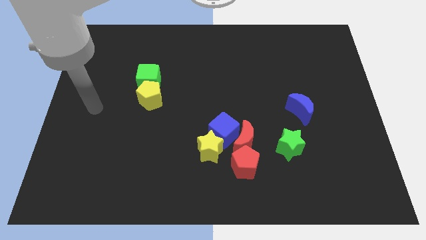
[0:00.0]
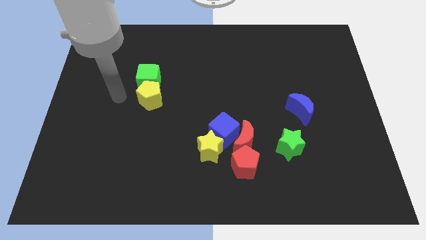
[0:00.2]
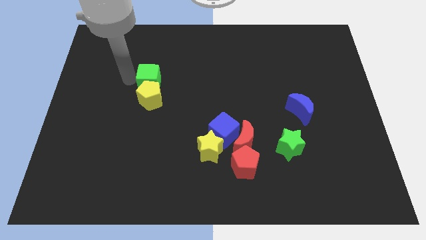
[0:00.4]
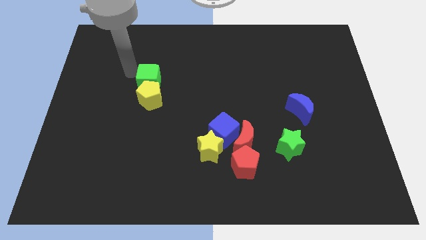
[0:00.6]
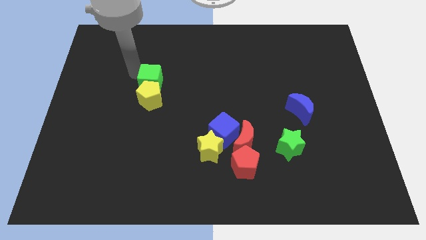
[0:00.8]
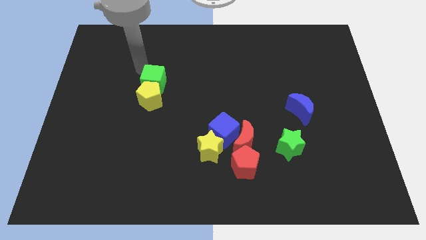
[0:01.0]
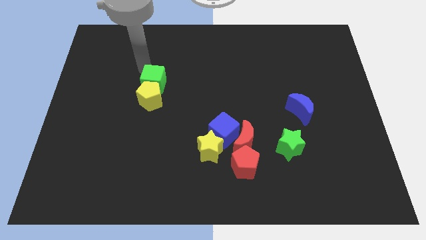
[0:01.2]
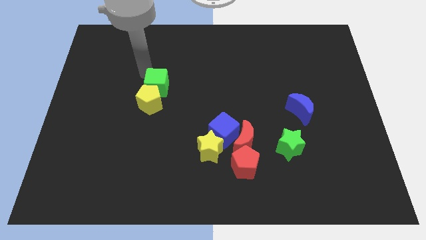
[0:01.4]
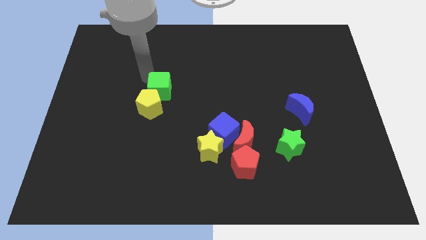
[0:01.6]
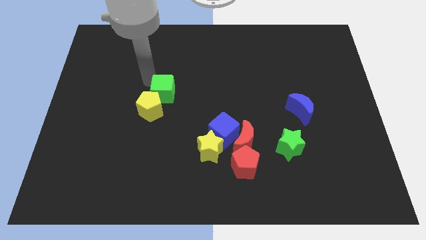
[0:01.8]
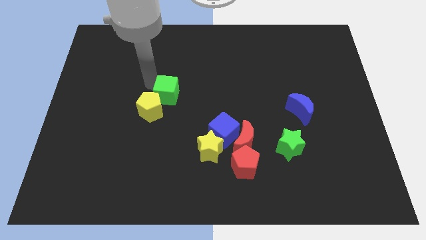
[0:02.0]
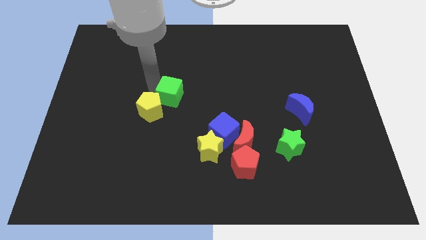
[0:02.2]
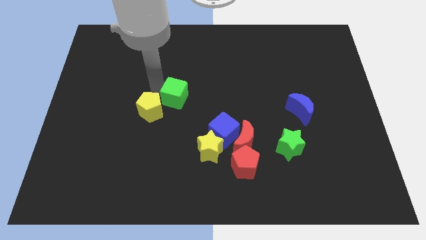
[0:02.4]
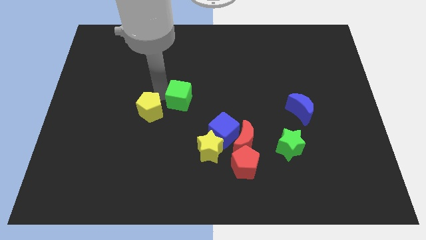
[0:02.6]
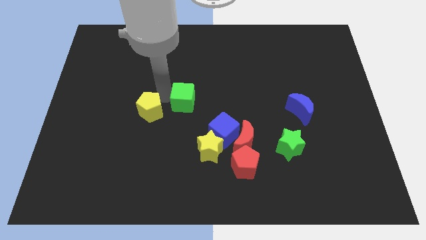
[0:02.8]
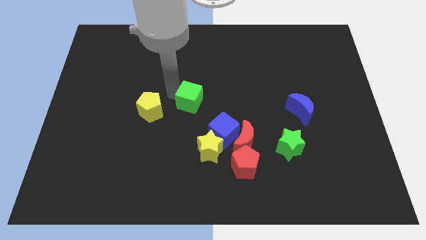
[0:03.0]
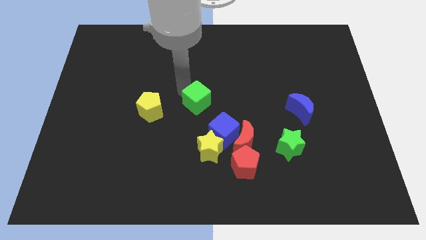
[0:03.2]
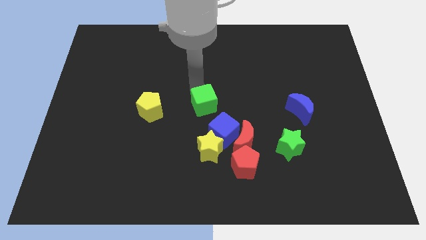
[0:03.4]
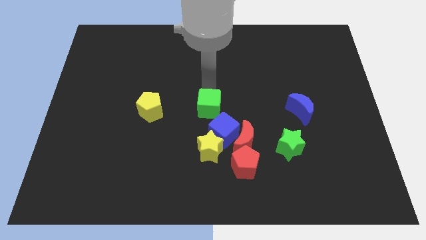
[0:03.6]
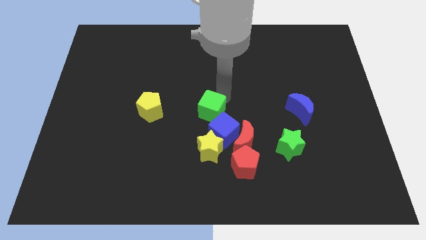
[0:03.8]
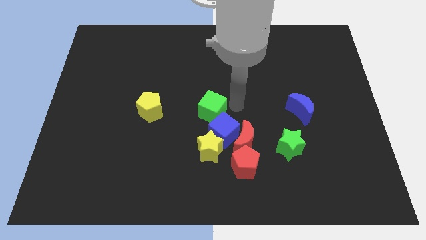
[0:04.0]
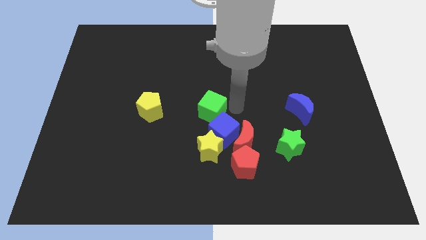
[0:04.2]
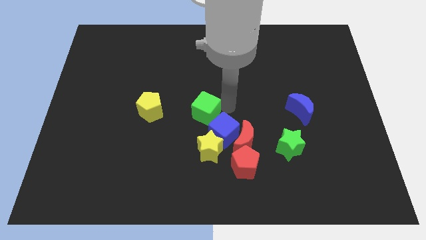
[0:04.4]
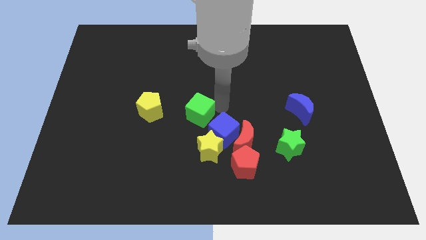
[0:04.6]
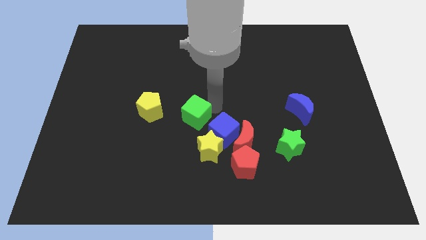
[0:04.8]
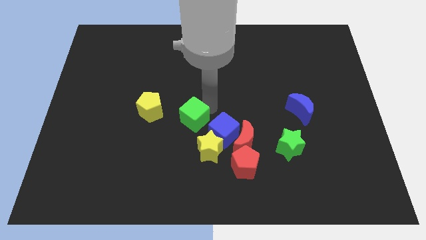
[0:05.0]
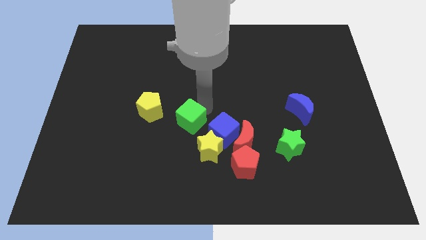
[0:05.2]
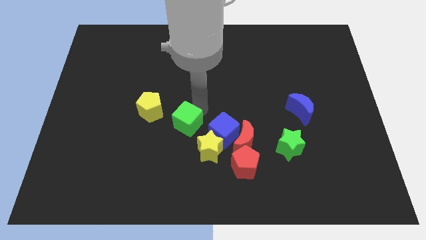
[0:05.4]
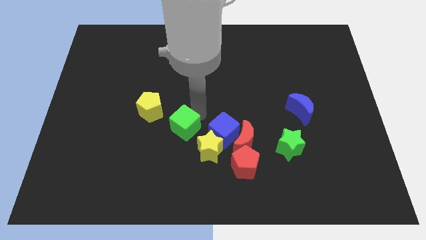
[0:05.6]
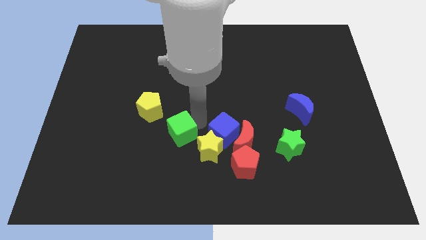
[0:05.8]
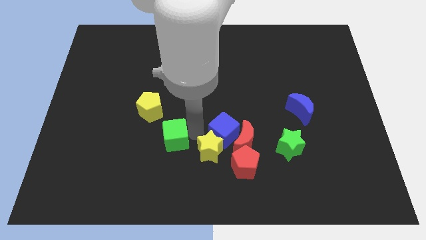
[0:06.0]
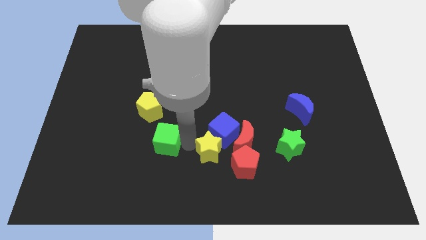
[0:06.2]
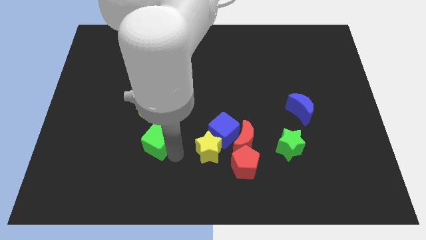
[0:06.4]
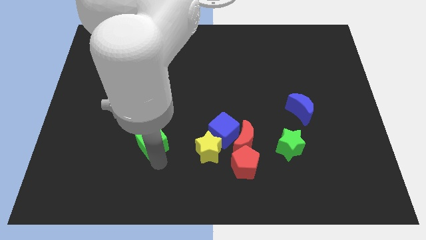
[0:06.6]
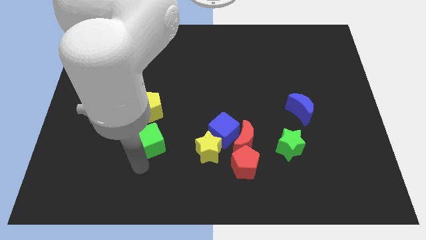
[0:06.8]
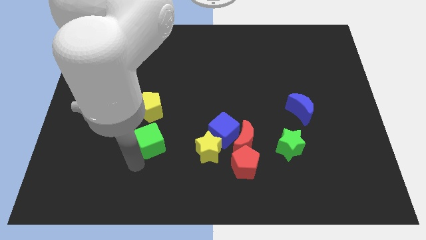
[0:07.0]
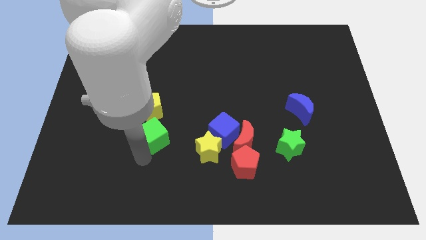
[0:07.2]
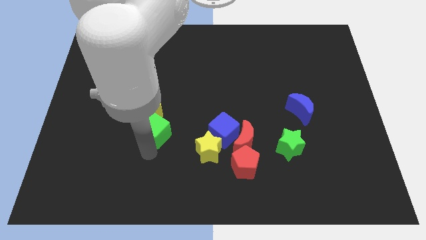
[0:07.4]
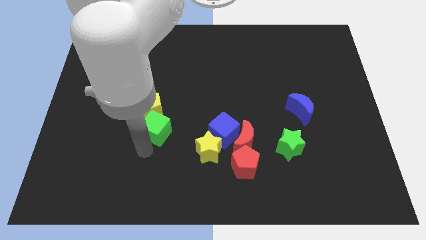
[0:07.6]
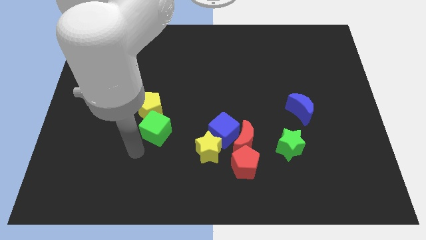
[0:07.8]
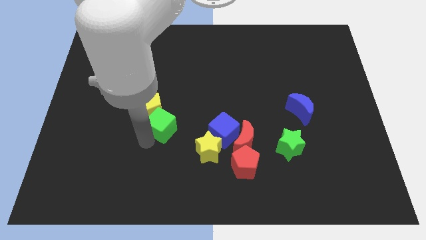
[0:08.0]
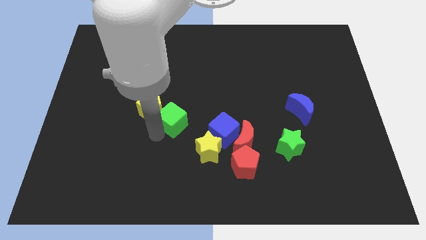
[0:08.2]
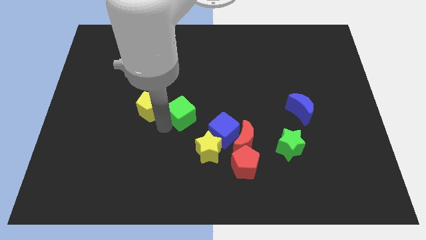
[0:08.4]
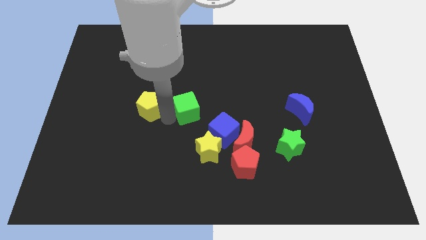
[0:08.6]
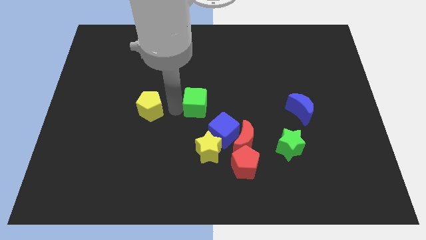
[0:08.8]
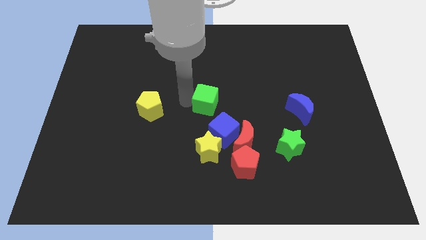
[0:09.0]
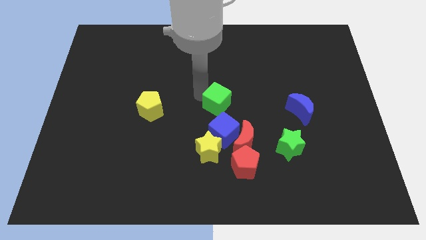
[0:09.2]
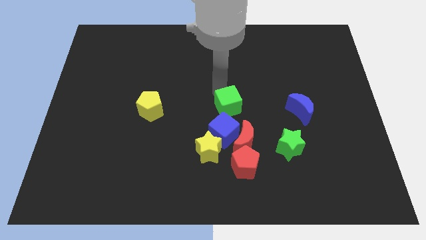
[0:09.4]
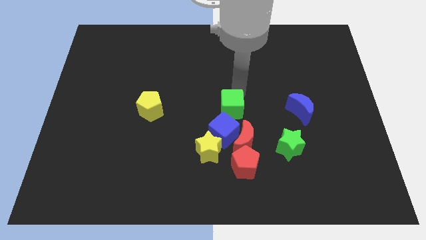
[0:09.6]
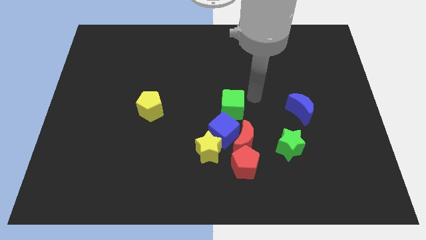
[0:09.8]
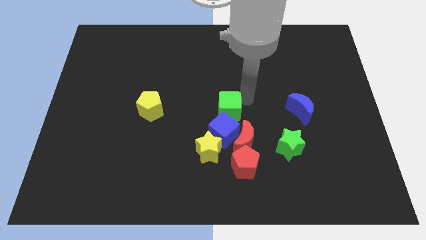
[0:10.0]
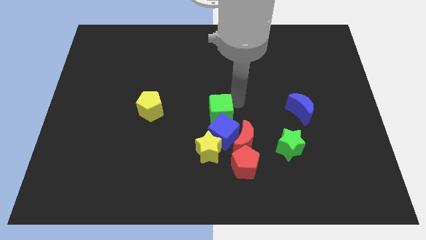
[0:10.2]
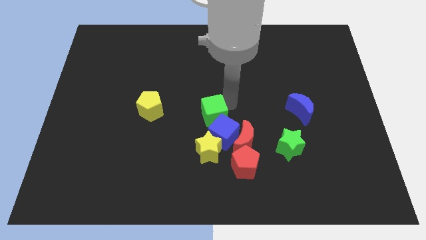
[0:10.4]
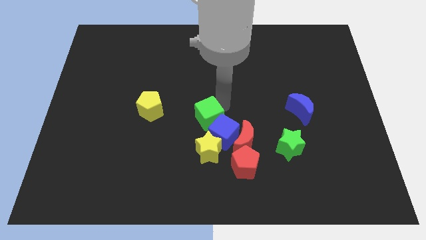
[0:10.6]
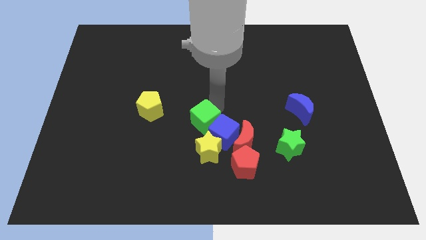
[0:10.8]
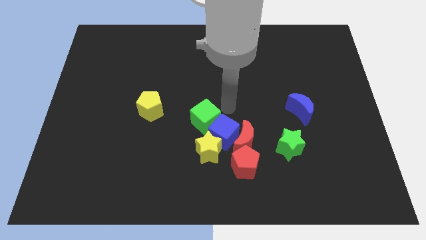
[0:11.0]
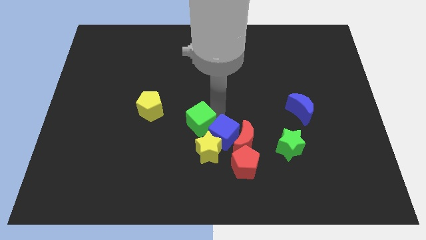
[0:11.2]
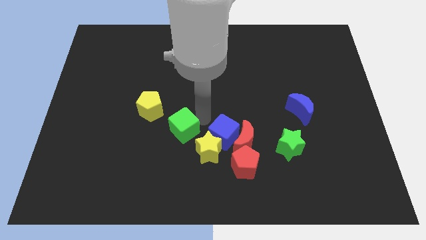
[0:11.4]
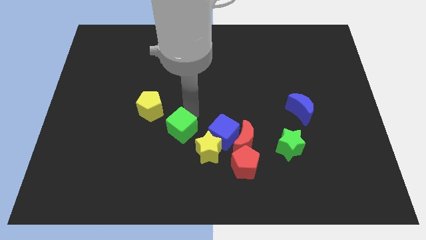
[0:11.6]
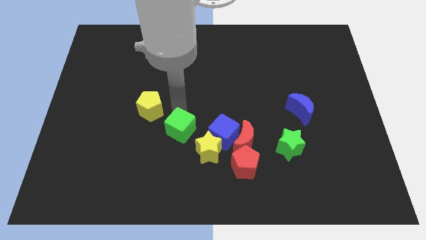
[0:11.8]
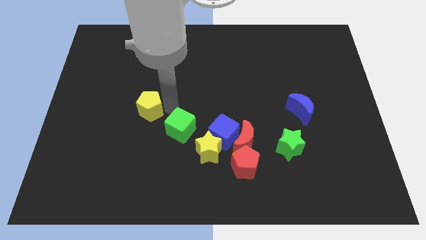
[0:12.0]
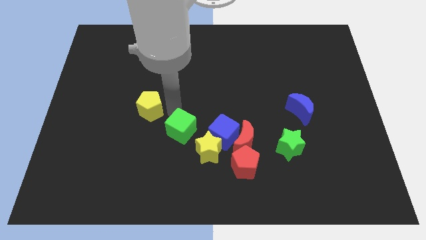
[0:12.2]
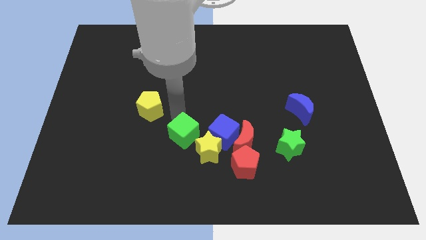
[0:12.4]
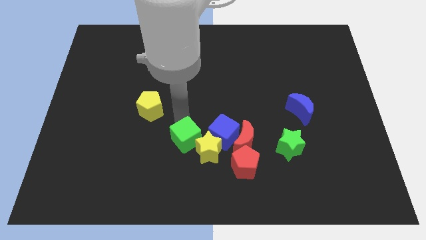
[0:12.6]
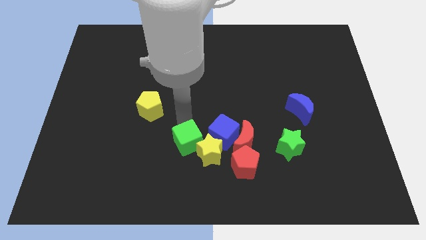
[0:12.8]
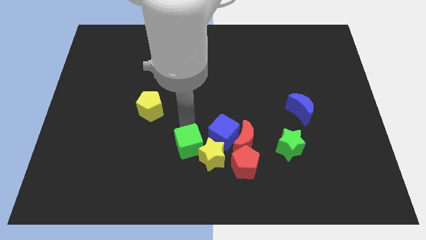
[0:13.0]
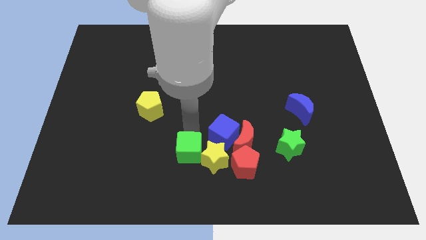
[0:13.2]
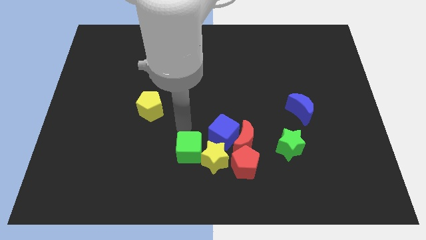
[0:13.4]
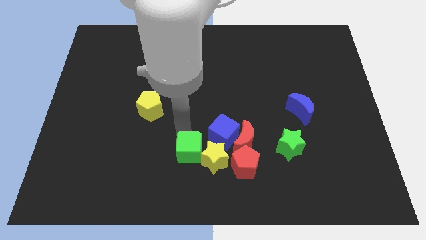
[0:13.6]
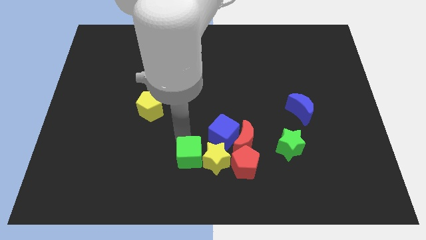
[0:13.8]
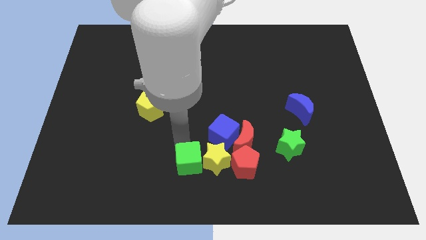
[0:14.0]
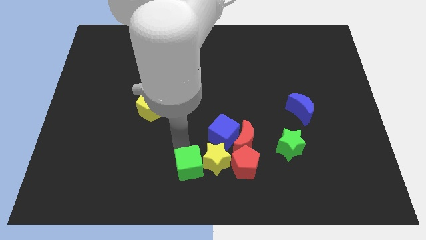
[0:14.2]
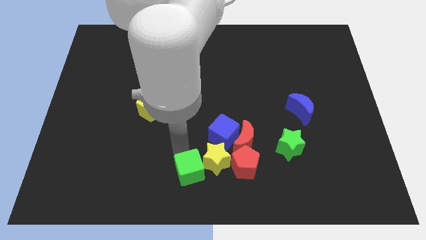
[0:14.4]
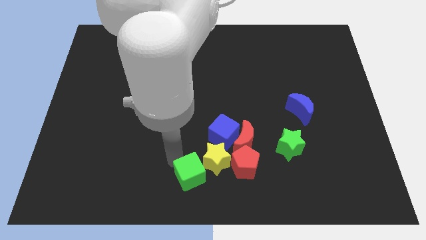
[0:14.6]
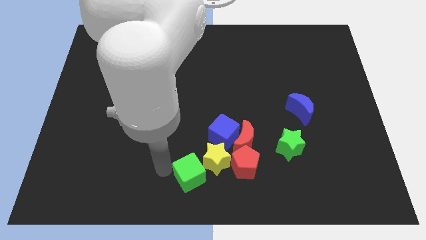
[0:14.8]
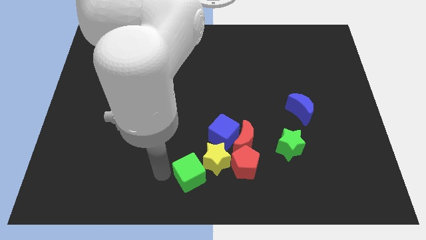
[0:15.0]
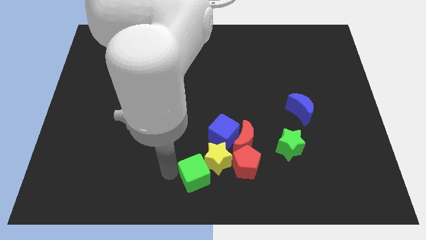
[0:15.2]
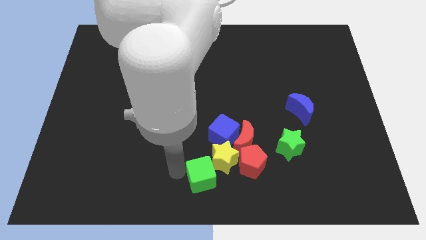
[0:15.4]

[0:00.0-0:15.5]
push the green cube to the bottom side of the blue cube
